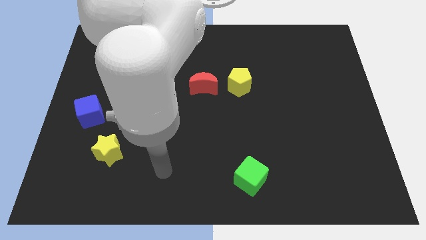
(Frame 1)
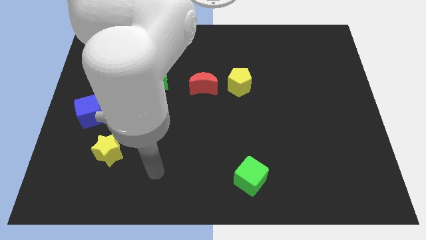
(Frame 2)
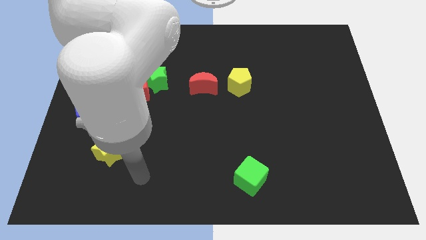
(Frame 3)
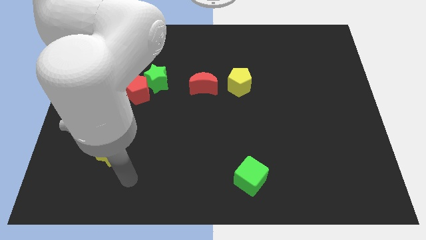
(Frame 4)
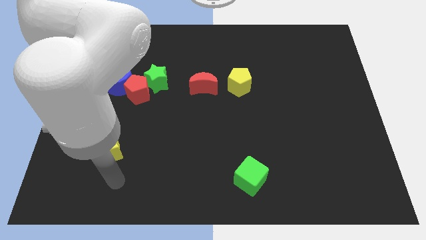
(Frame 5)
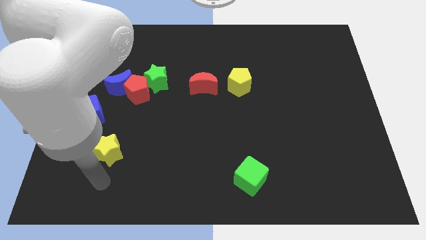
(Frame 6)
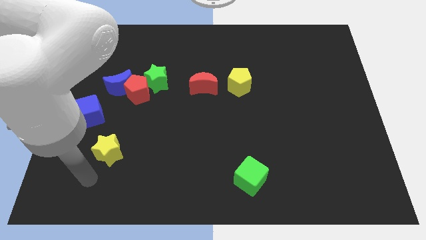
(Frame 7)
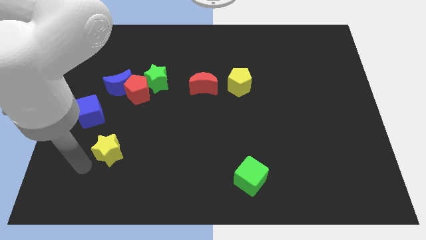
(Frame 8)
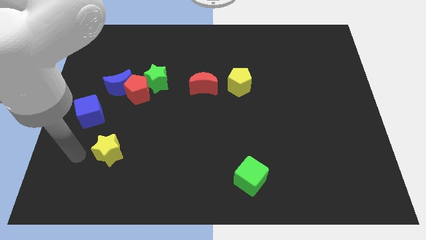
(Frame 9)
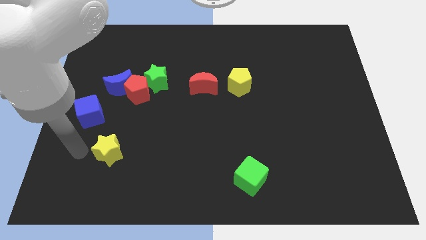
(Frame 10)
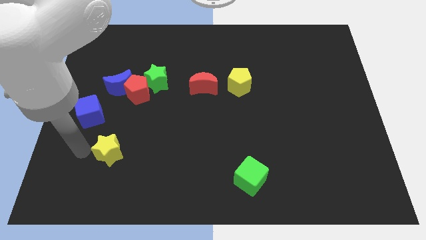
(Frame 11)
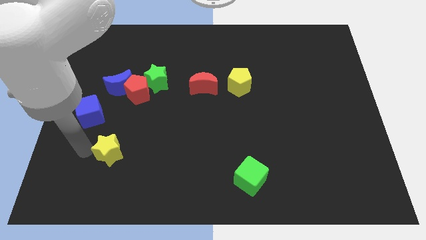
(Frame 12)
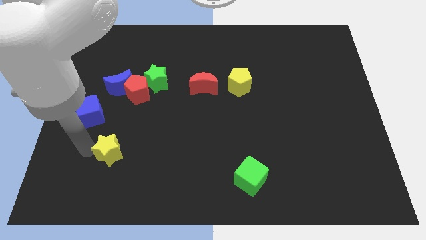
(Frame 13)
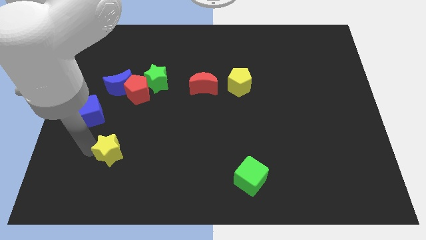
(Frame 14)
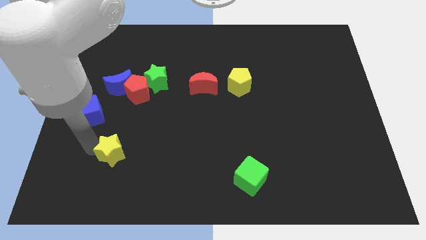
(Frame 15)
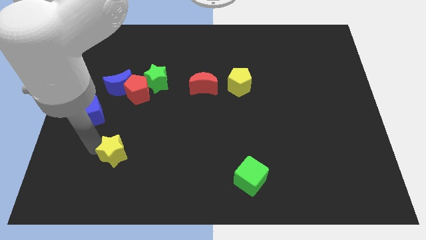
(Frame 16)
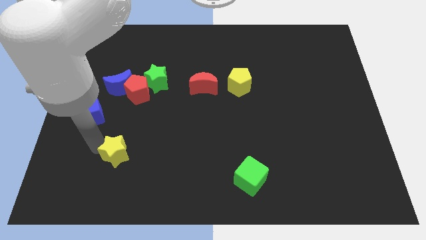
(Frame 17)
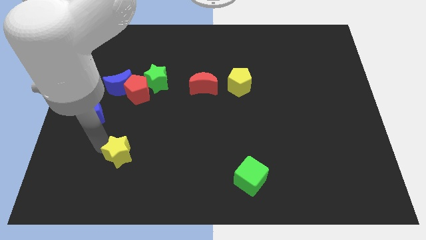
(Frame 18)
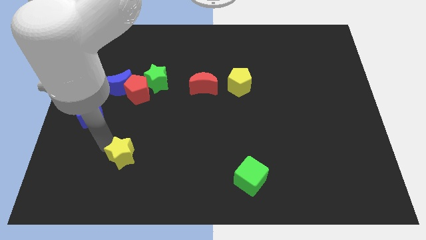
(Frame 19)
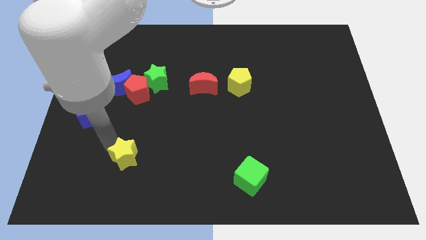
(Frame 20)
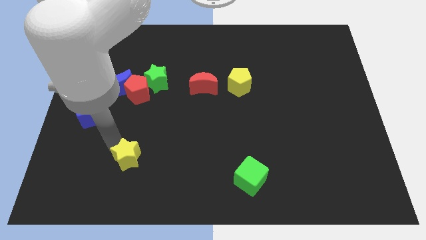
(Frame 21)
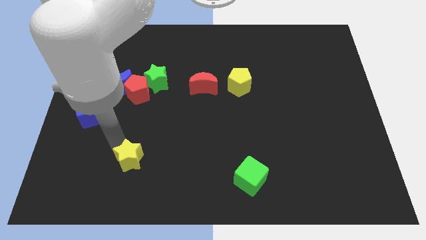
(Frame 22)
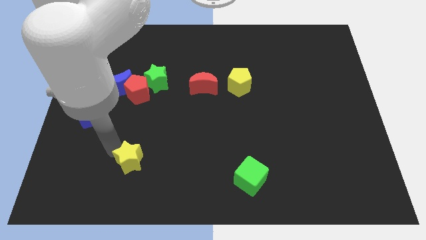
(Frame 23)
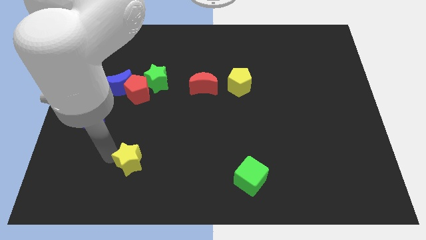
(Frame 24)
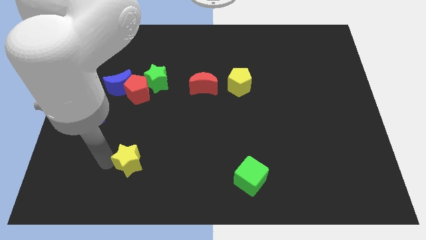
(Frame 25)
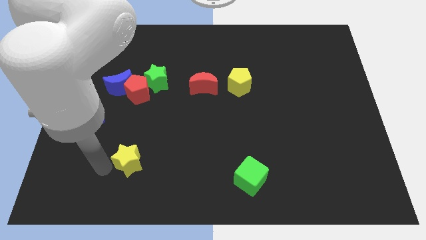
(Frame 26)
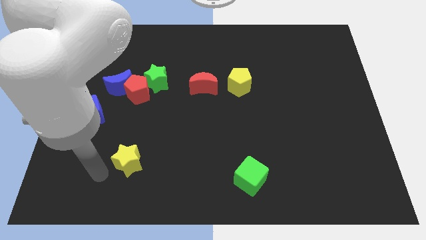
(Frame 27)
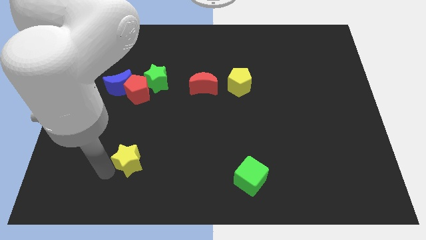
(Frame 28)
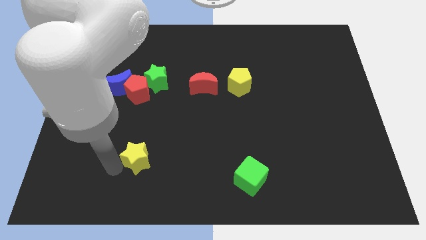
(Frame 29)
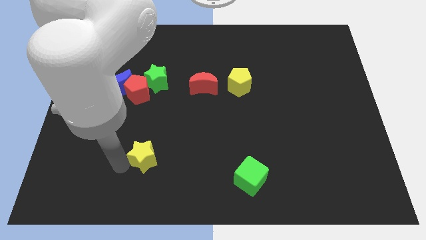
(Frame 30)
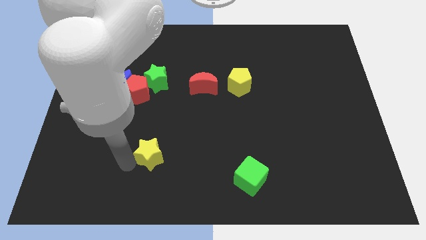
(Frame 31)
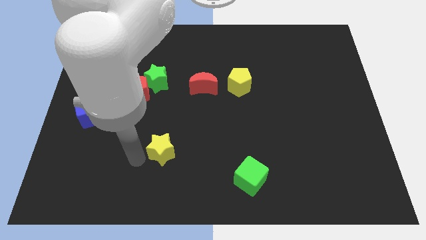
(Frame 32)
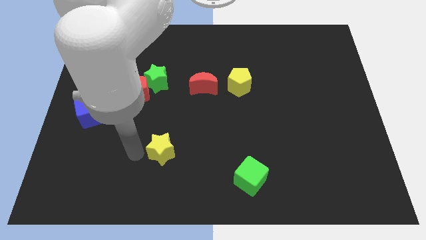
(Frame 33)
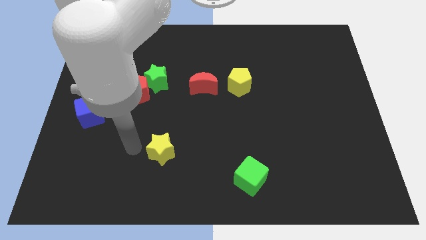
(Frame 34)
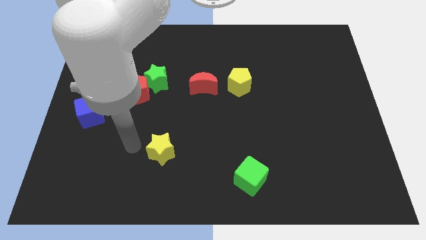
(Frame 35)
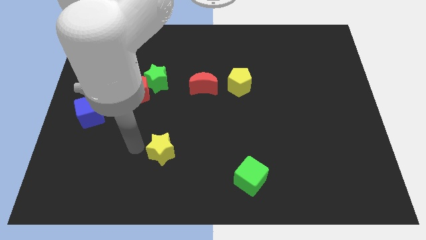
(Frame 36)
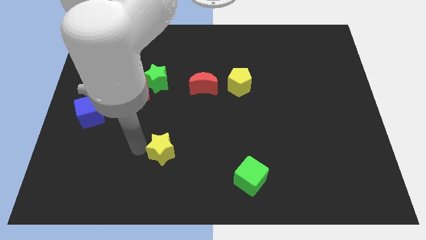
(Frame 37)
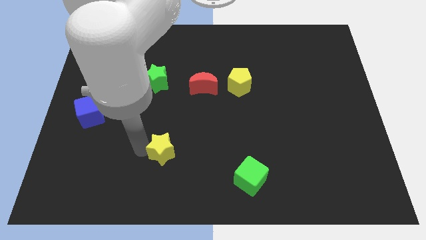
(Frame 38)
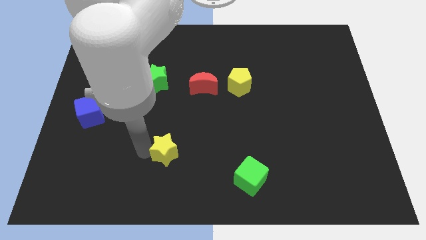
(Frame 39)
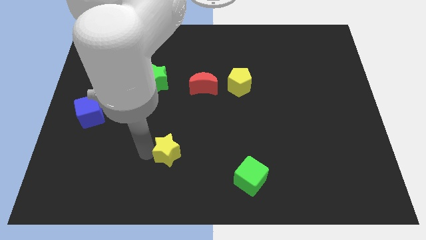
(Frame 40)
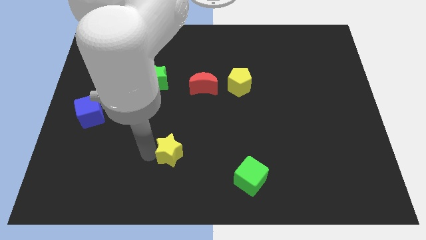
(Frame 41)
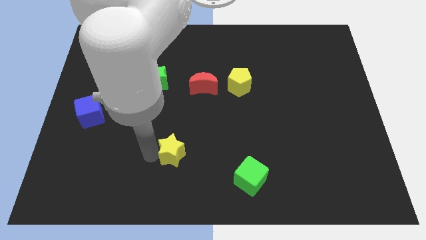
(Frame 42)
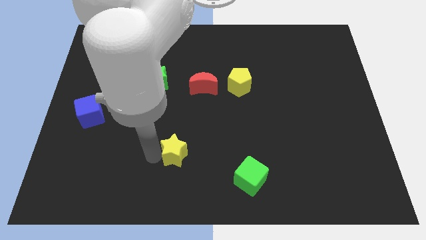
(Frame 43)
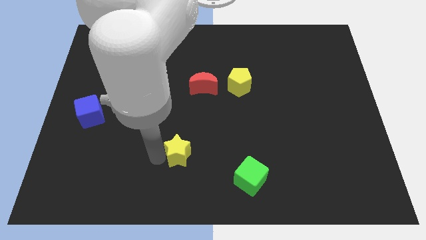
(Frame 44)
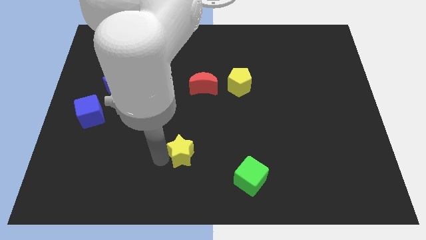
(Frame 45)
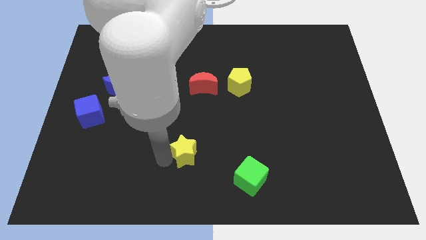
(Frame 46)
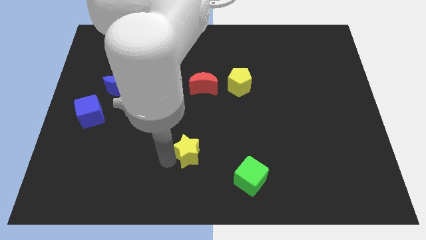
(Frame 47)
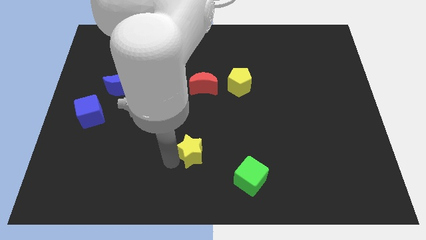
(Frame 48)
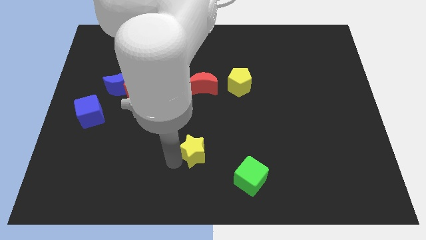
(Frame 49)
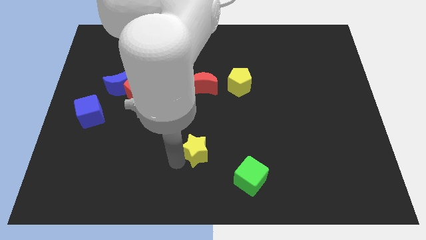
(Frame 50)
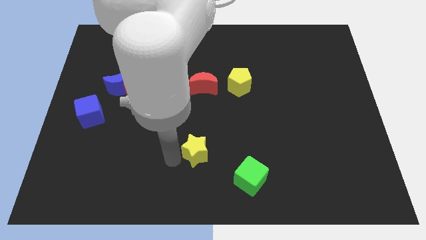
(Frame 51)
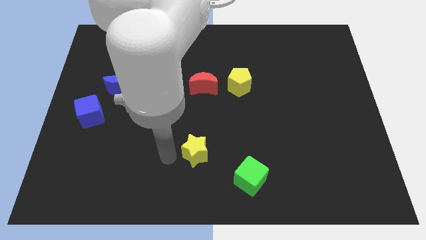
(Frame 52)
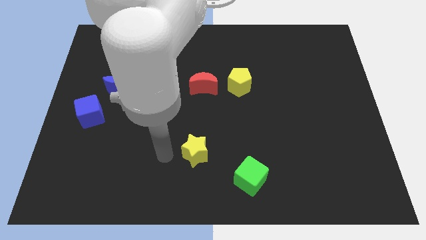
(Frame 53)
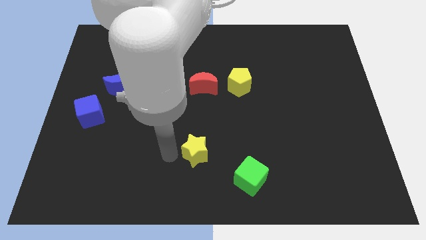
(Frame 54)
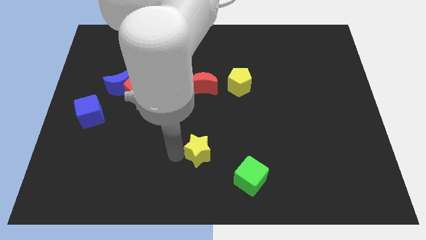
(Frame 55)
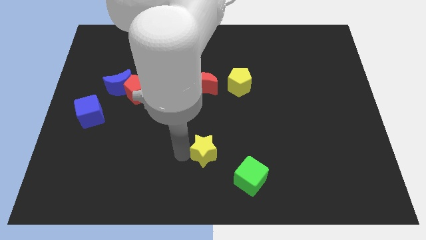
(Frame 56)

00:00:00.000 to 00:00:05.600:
move the yellow star to the right

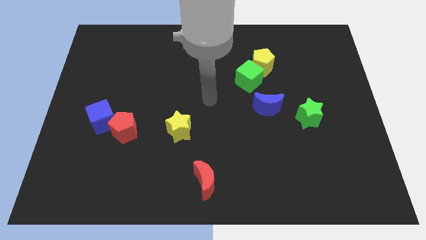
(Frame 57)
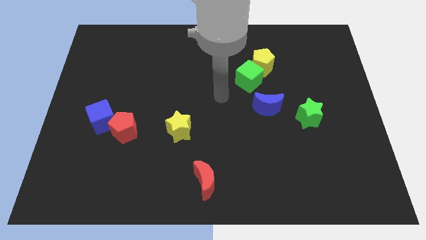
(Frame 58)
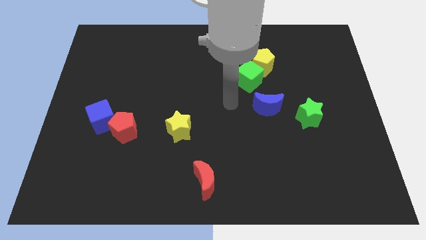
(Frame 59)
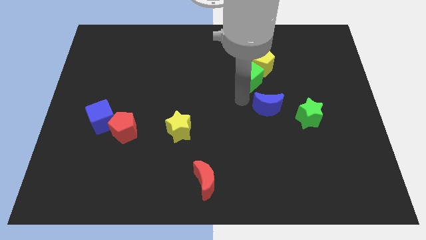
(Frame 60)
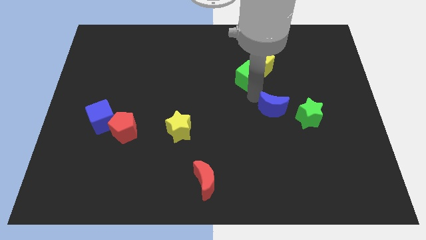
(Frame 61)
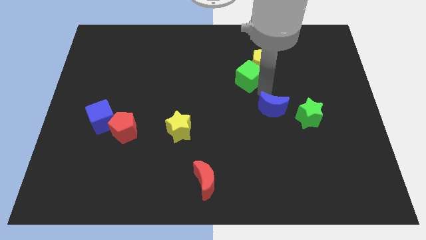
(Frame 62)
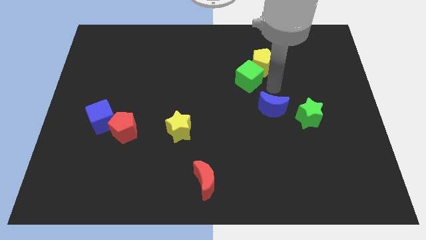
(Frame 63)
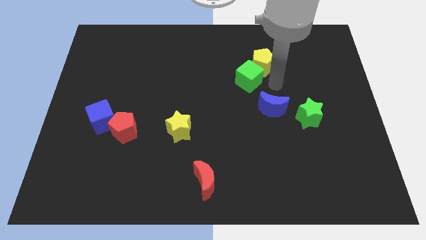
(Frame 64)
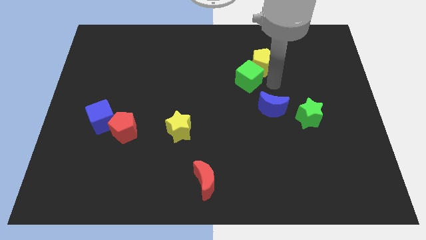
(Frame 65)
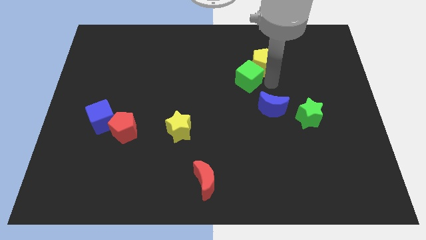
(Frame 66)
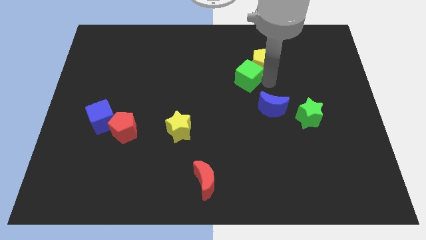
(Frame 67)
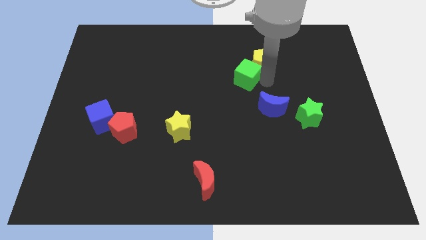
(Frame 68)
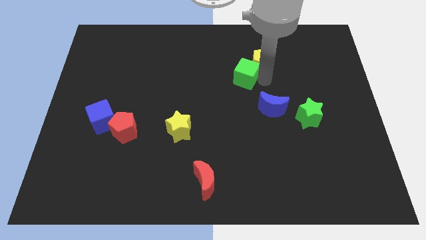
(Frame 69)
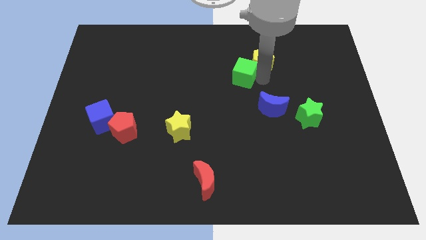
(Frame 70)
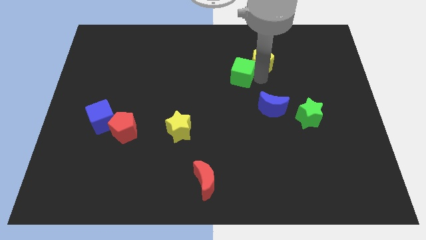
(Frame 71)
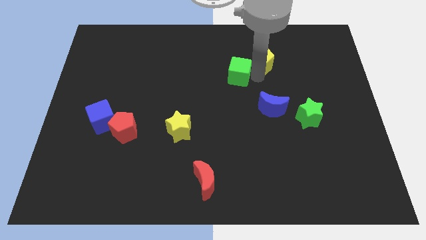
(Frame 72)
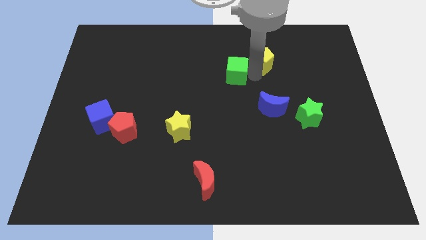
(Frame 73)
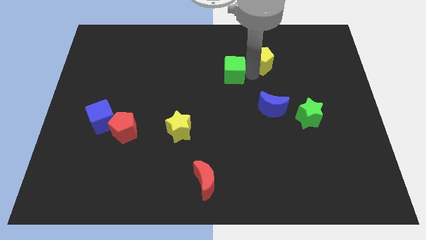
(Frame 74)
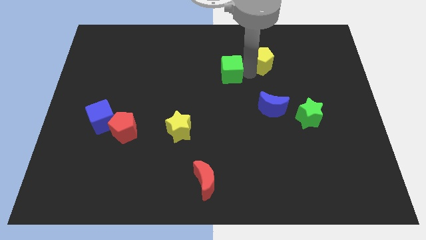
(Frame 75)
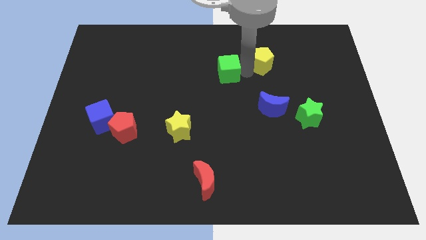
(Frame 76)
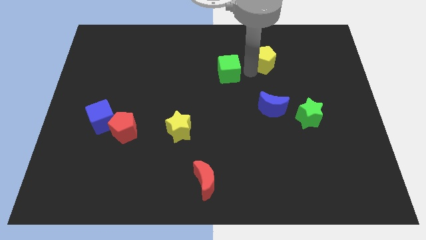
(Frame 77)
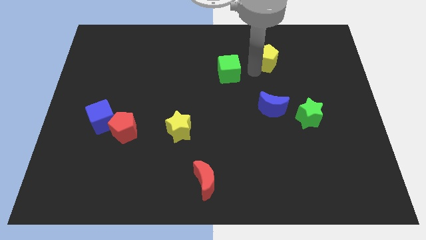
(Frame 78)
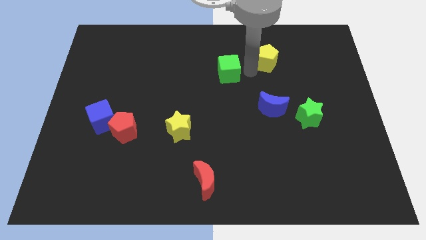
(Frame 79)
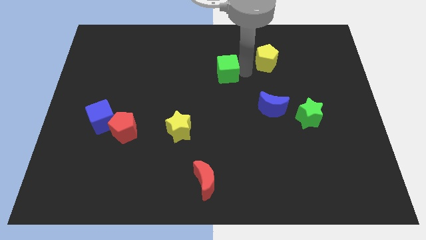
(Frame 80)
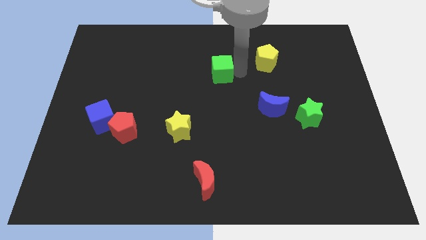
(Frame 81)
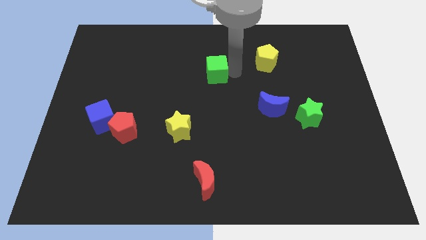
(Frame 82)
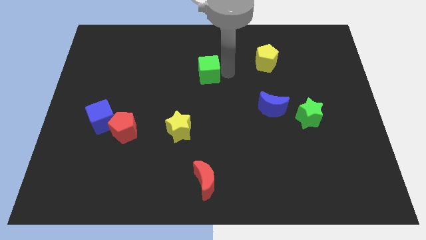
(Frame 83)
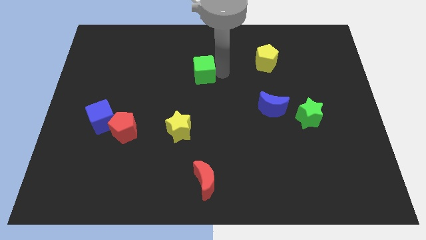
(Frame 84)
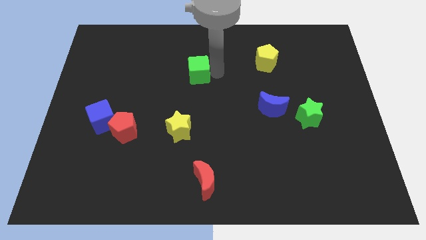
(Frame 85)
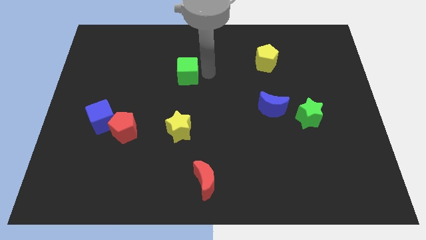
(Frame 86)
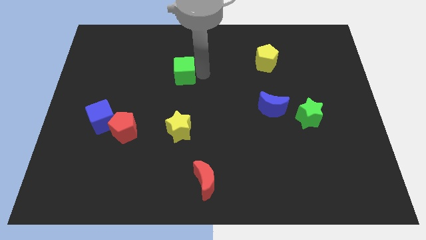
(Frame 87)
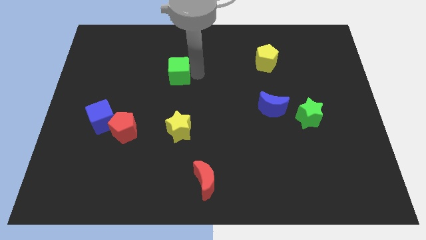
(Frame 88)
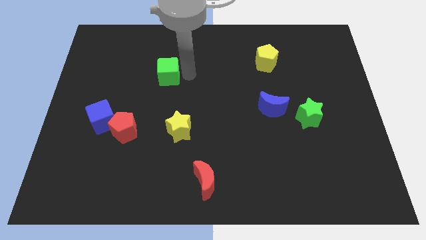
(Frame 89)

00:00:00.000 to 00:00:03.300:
slide the green cube to the left
